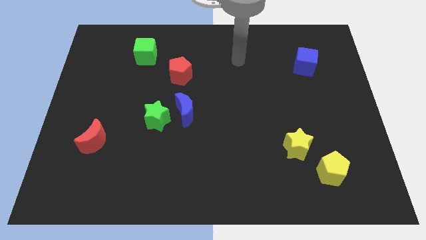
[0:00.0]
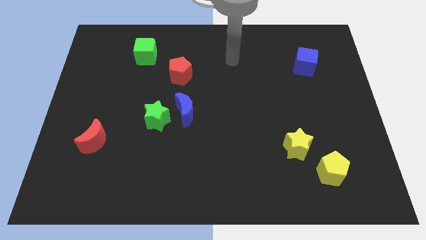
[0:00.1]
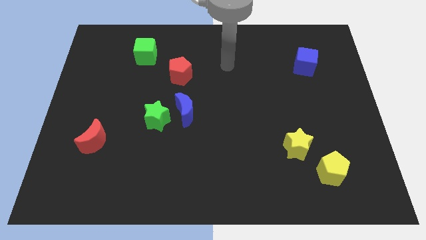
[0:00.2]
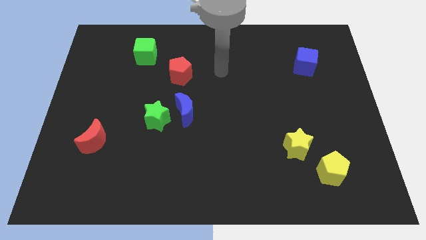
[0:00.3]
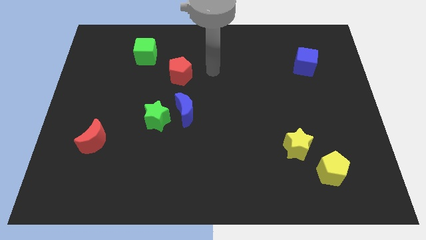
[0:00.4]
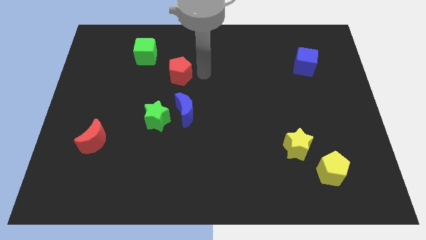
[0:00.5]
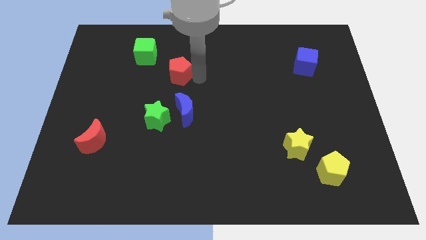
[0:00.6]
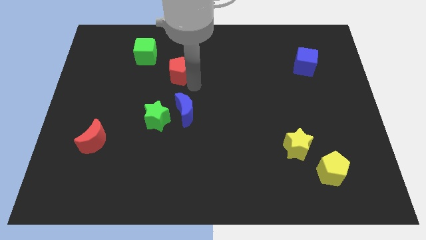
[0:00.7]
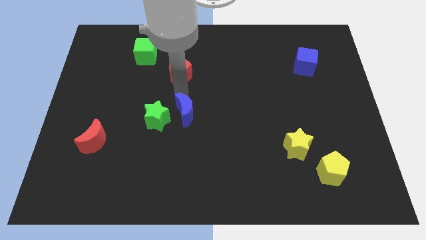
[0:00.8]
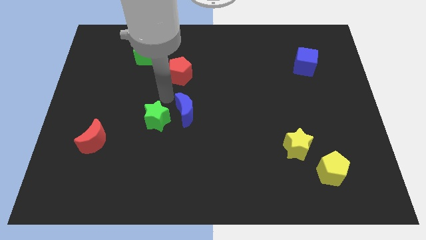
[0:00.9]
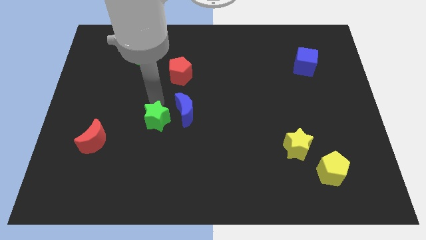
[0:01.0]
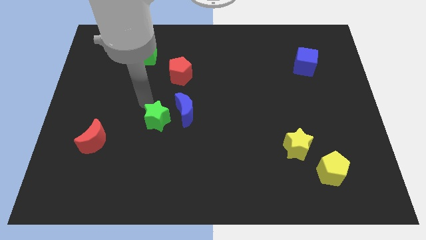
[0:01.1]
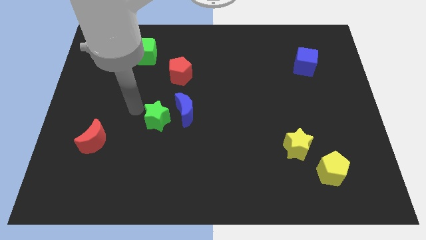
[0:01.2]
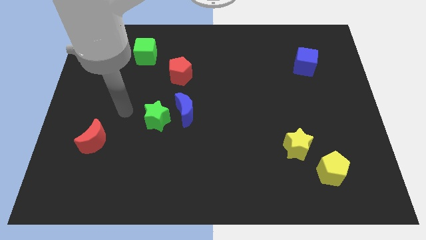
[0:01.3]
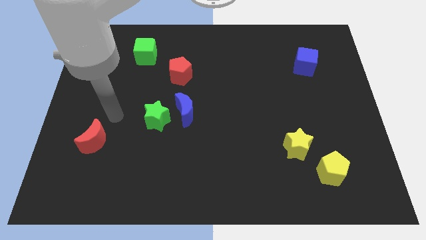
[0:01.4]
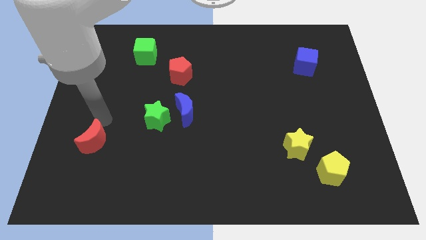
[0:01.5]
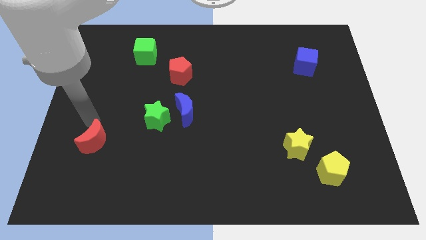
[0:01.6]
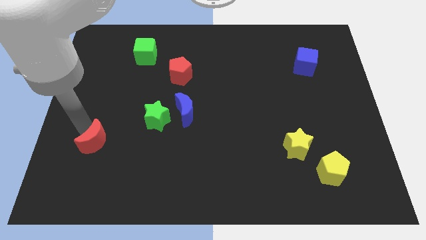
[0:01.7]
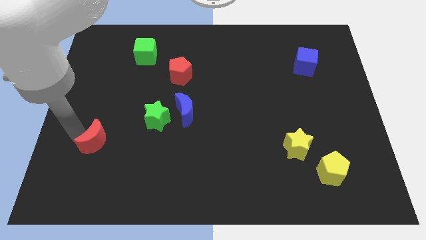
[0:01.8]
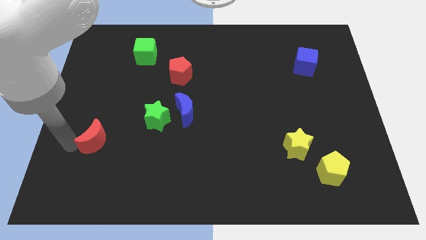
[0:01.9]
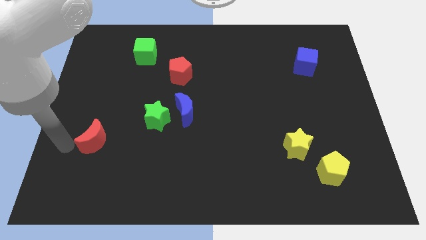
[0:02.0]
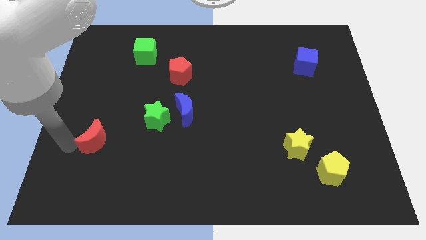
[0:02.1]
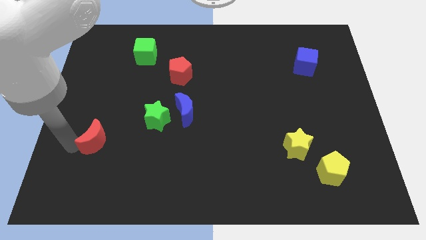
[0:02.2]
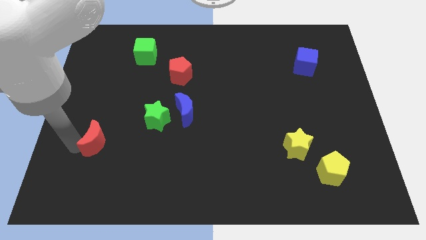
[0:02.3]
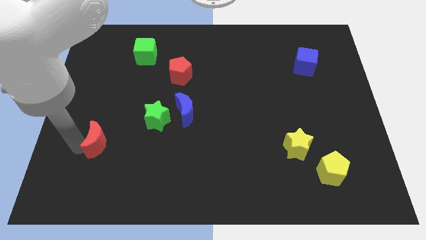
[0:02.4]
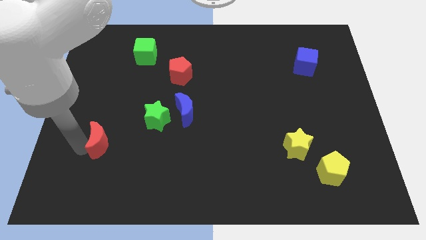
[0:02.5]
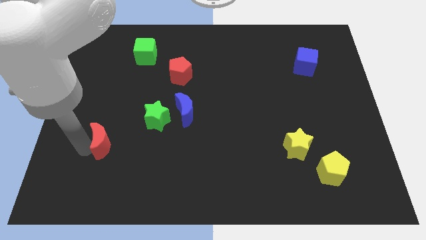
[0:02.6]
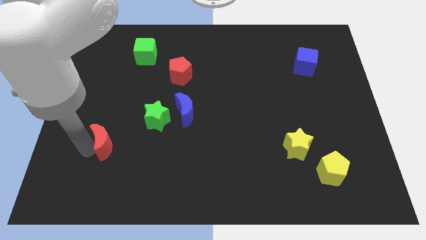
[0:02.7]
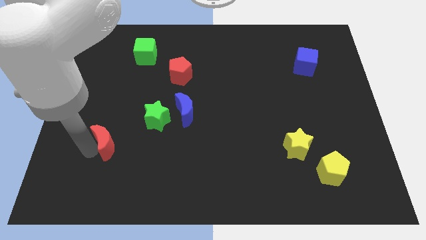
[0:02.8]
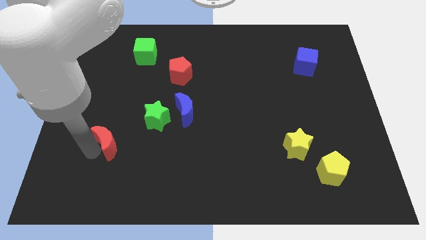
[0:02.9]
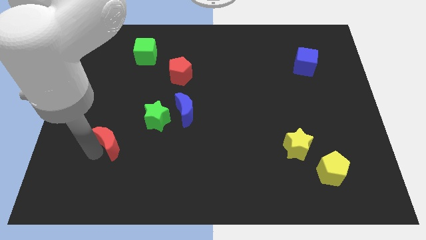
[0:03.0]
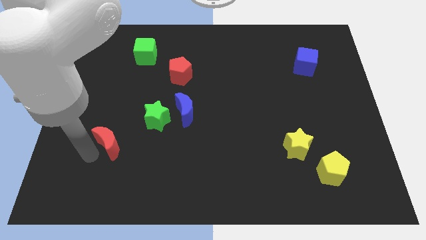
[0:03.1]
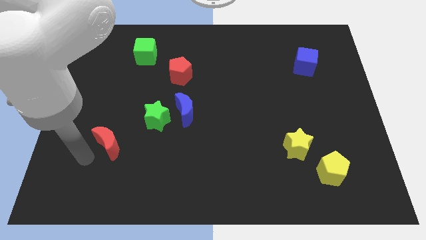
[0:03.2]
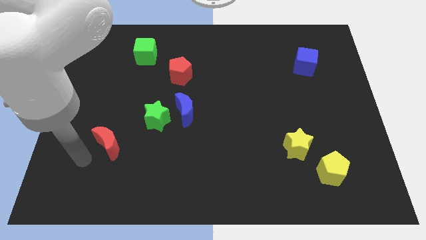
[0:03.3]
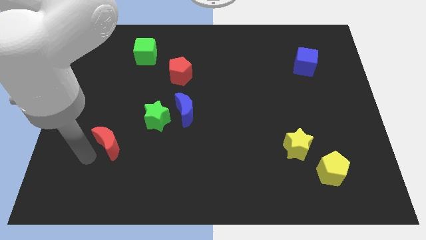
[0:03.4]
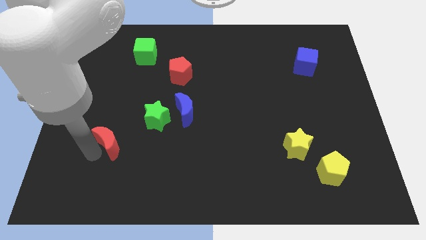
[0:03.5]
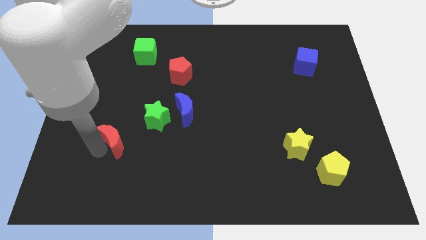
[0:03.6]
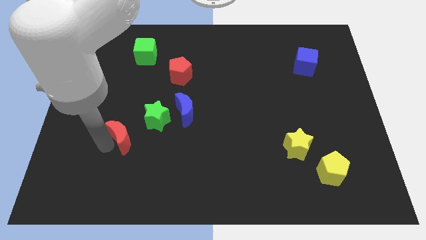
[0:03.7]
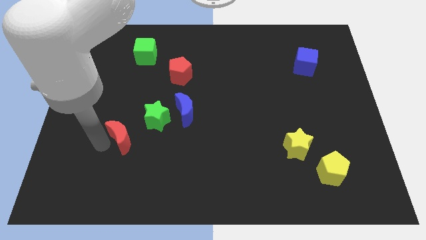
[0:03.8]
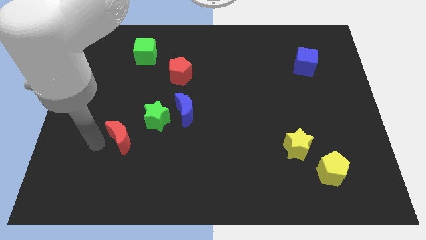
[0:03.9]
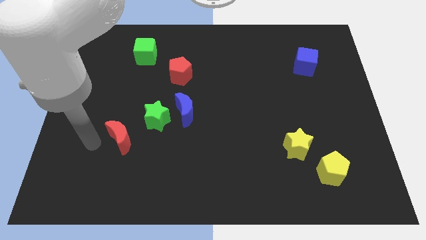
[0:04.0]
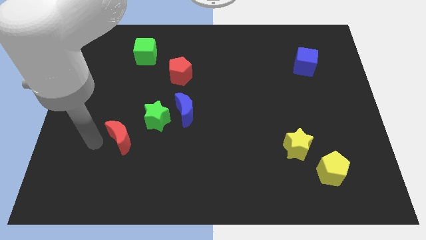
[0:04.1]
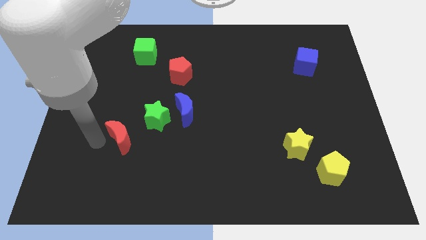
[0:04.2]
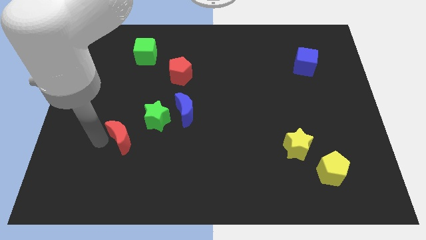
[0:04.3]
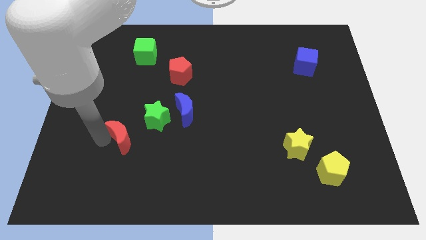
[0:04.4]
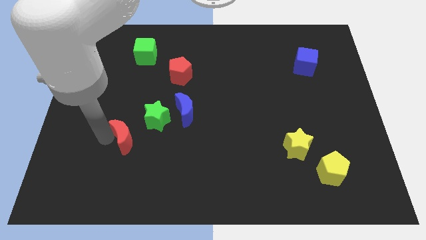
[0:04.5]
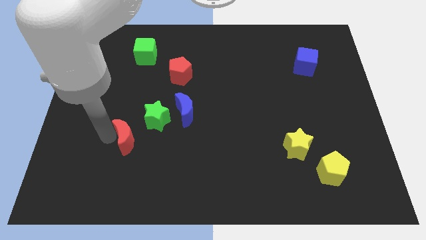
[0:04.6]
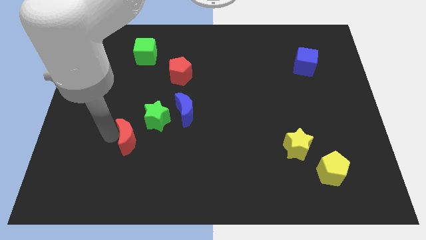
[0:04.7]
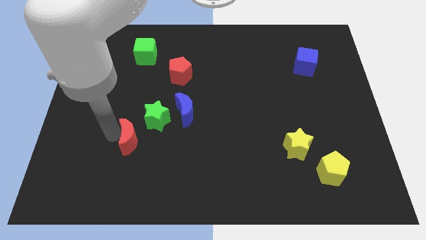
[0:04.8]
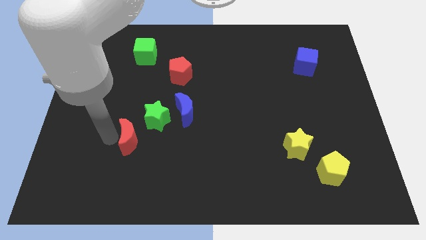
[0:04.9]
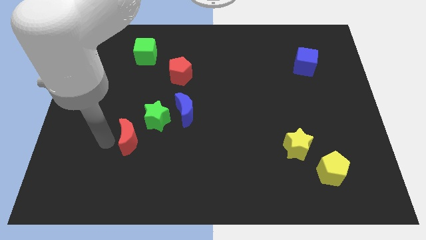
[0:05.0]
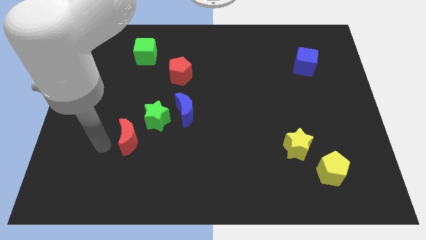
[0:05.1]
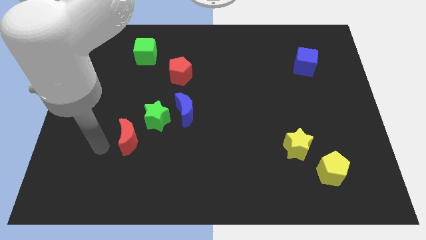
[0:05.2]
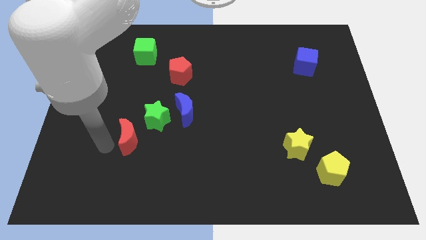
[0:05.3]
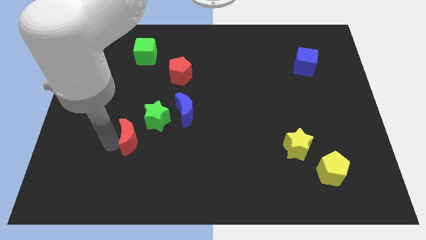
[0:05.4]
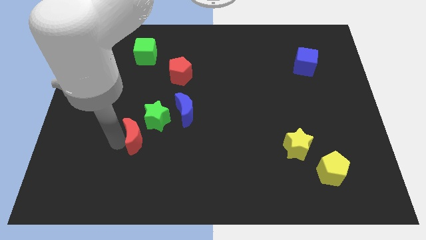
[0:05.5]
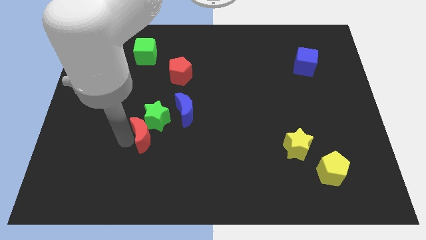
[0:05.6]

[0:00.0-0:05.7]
move the red moon diagonally down and to the left of the blue moon

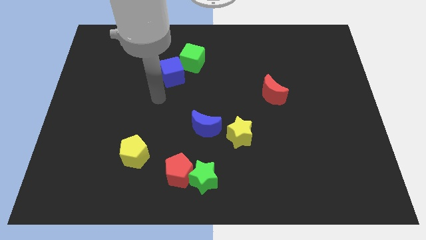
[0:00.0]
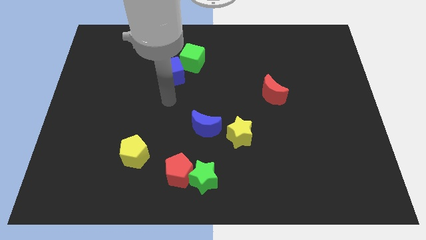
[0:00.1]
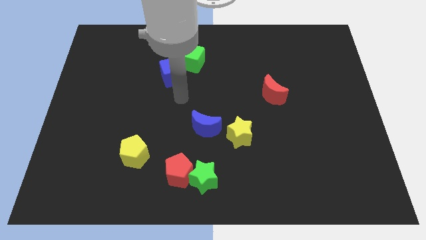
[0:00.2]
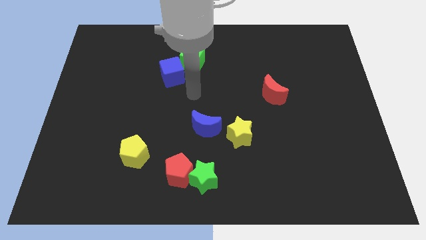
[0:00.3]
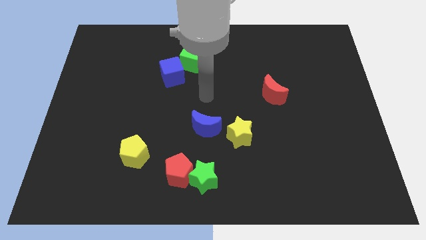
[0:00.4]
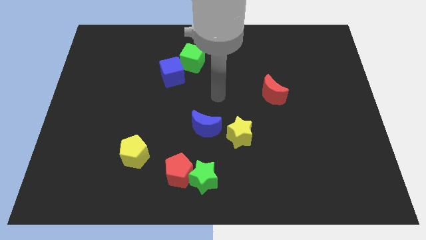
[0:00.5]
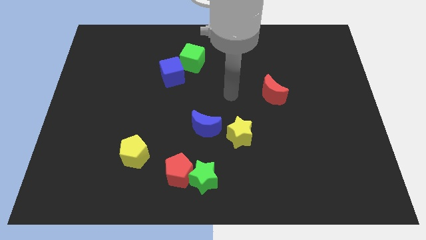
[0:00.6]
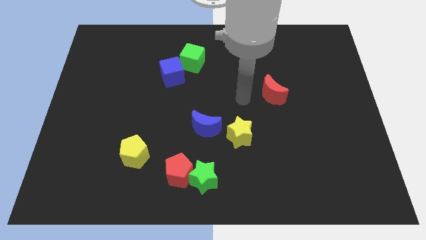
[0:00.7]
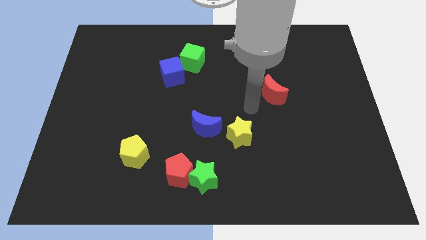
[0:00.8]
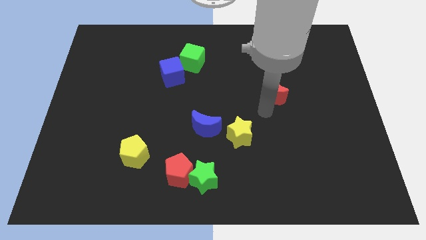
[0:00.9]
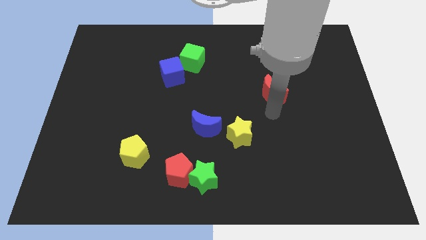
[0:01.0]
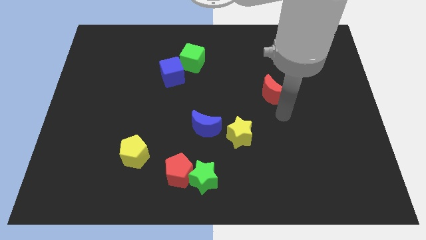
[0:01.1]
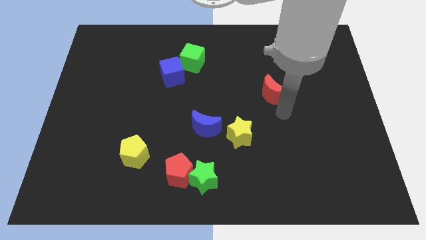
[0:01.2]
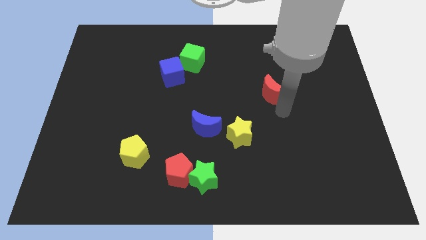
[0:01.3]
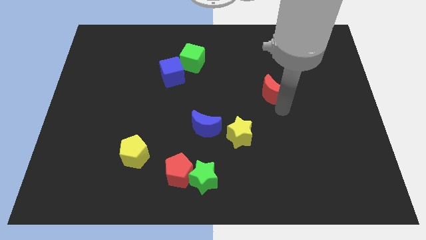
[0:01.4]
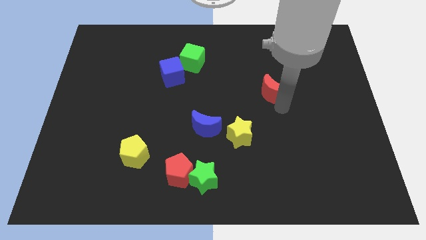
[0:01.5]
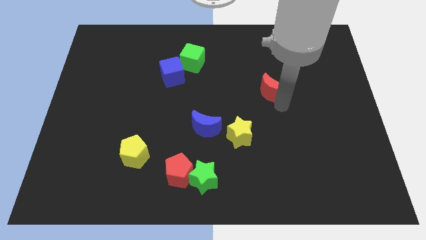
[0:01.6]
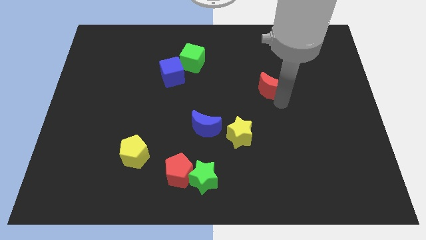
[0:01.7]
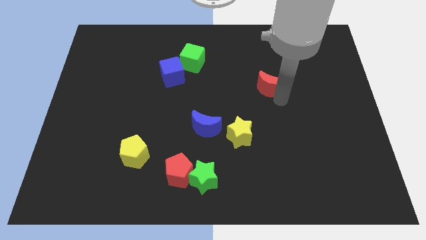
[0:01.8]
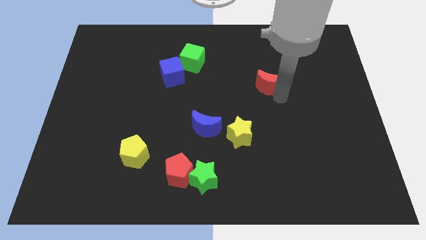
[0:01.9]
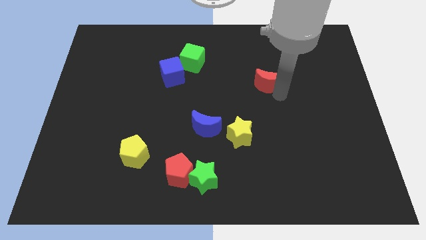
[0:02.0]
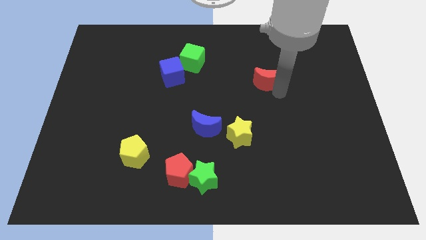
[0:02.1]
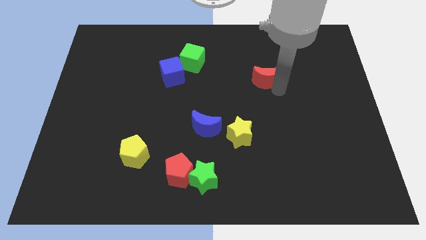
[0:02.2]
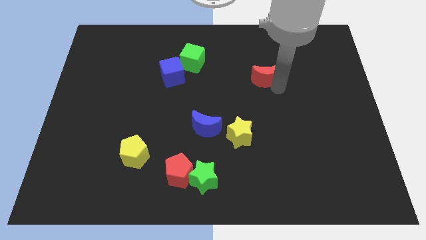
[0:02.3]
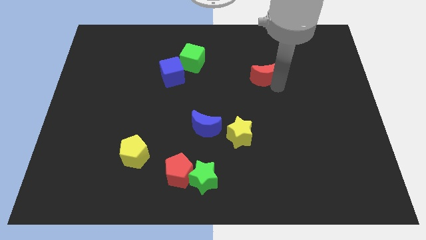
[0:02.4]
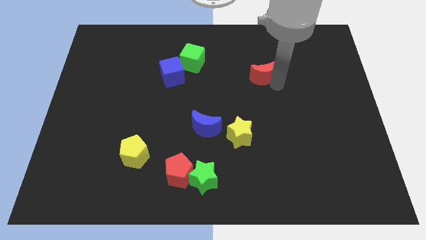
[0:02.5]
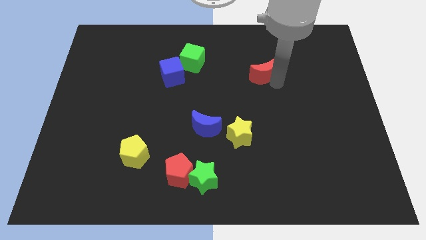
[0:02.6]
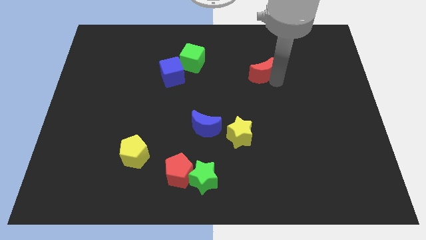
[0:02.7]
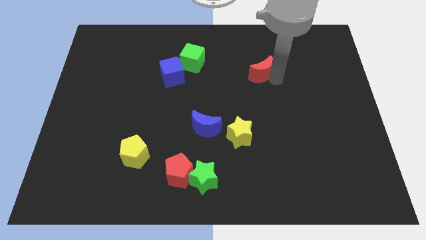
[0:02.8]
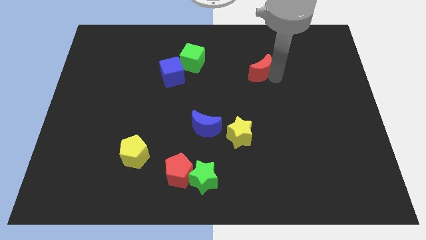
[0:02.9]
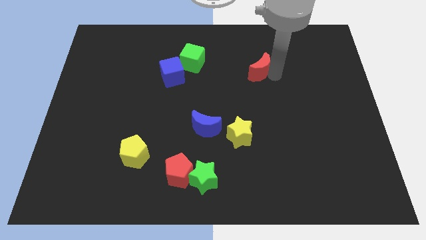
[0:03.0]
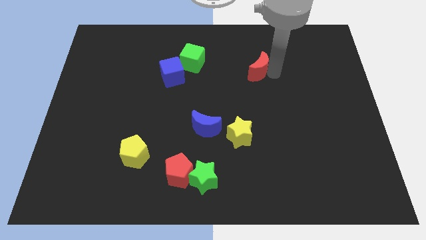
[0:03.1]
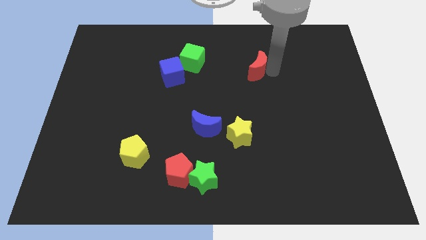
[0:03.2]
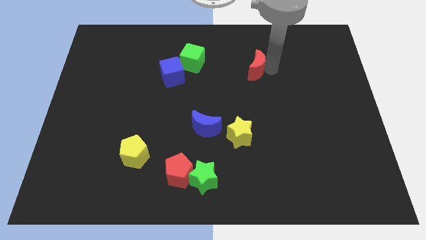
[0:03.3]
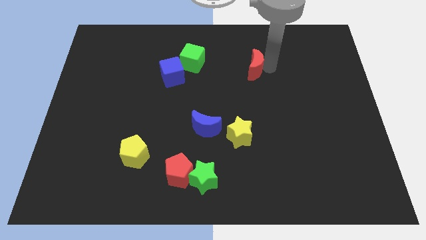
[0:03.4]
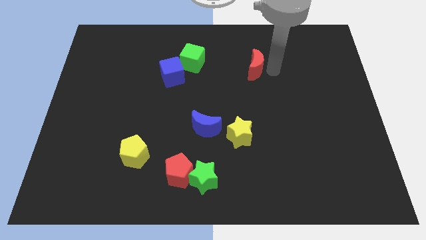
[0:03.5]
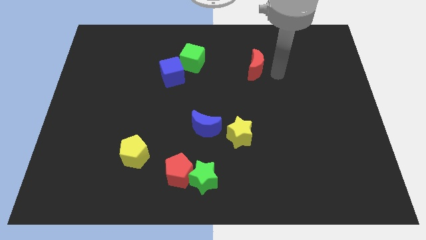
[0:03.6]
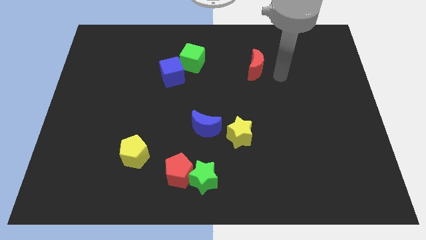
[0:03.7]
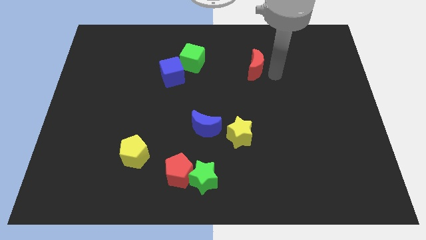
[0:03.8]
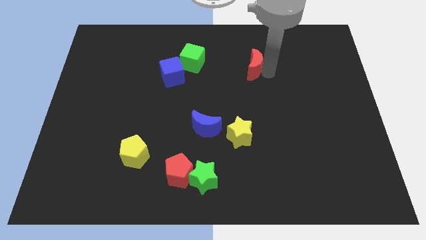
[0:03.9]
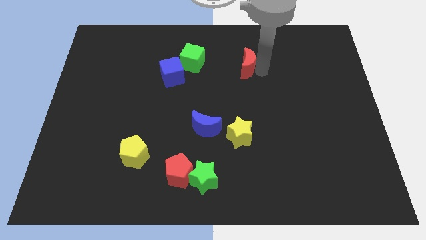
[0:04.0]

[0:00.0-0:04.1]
slide the red moon to the right side of the green cube
